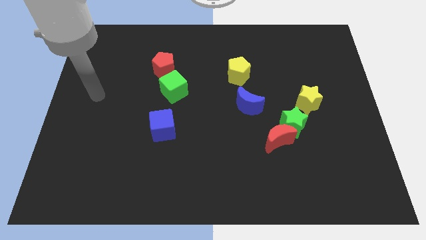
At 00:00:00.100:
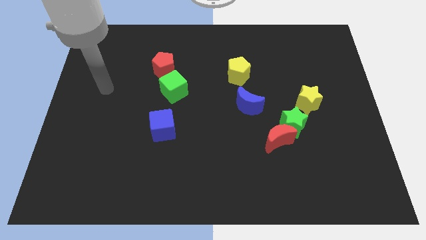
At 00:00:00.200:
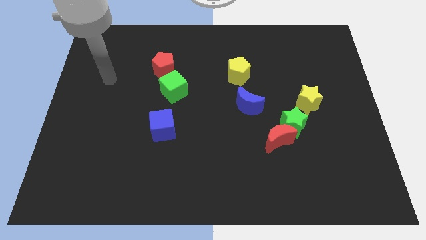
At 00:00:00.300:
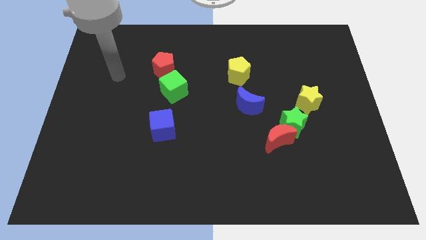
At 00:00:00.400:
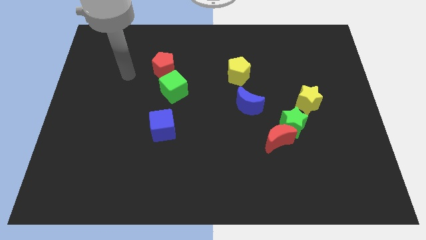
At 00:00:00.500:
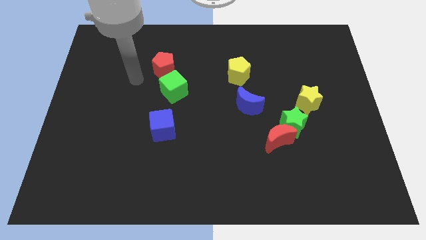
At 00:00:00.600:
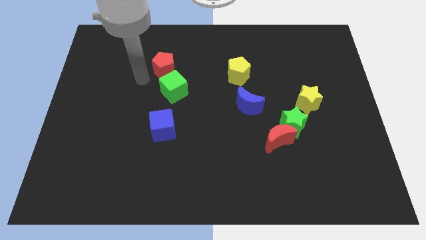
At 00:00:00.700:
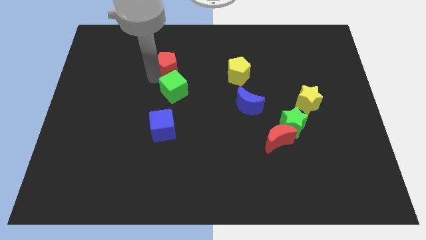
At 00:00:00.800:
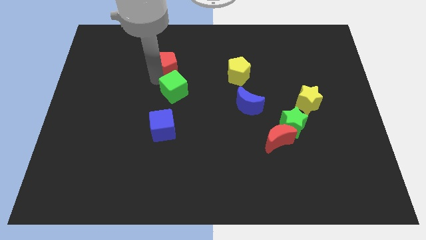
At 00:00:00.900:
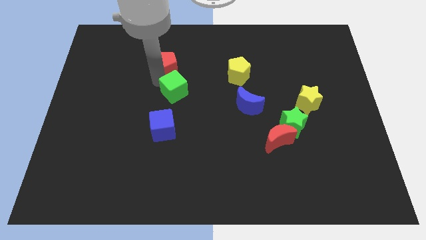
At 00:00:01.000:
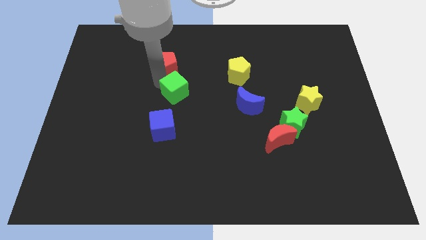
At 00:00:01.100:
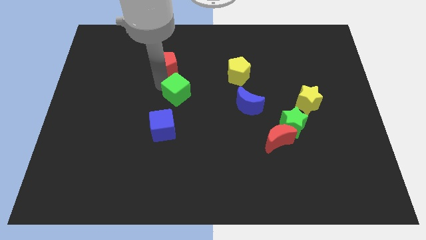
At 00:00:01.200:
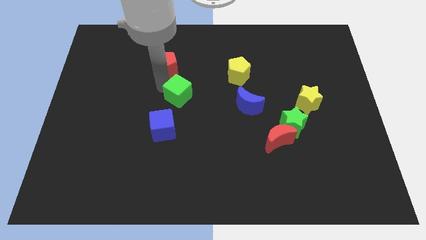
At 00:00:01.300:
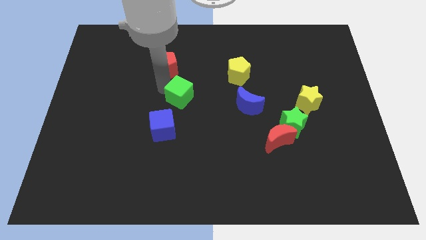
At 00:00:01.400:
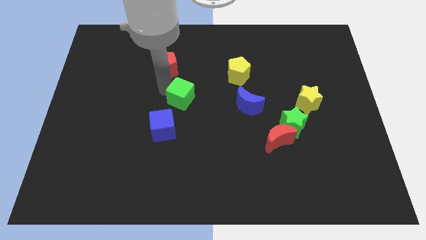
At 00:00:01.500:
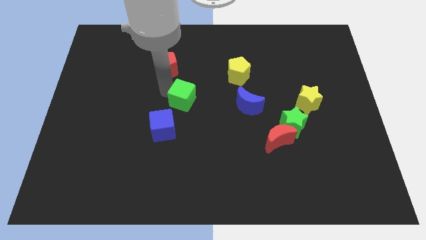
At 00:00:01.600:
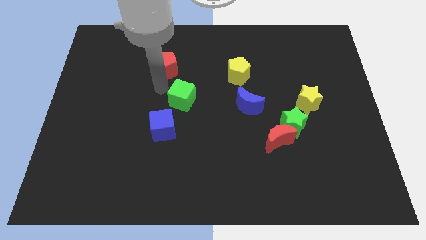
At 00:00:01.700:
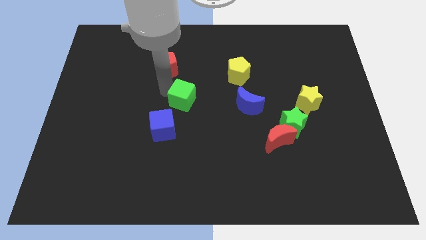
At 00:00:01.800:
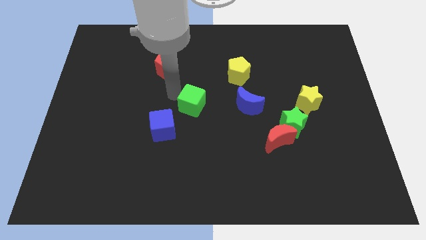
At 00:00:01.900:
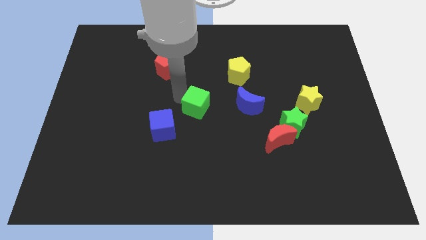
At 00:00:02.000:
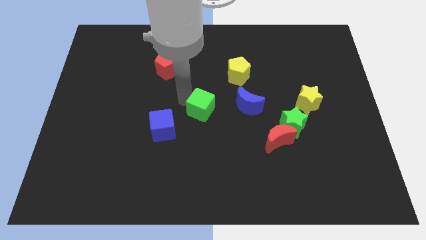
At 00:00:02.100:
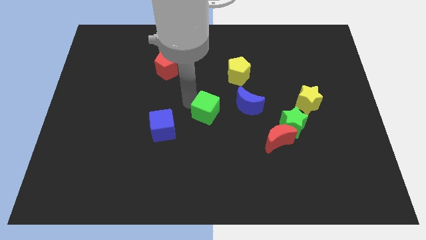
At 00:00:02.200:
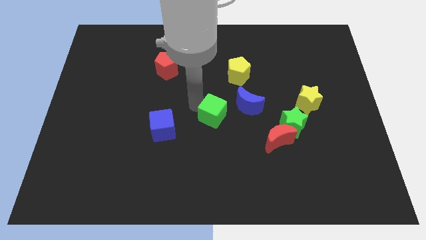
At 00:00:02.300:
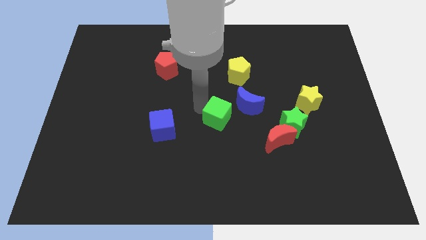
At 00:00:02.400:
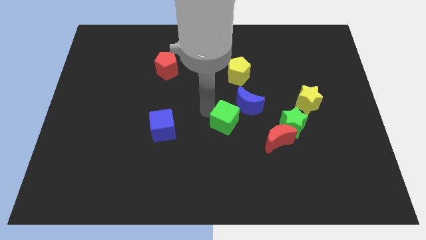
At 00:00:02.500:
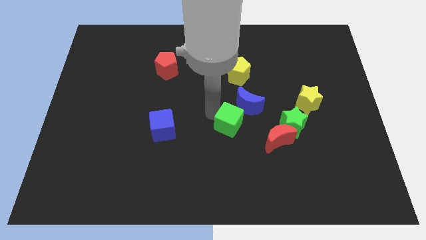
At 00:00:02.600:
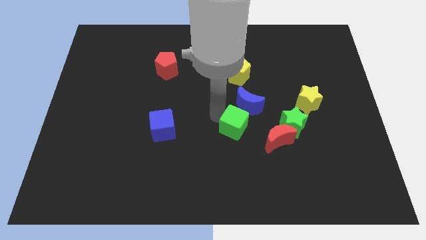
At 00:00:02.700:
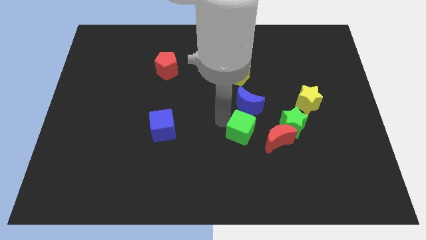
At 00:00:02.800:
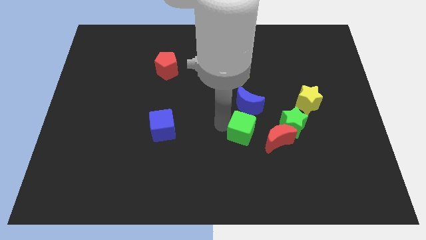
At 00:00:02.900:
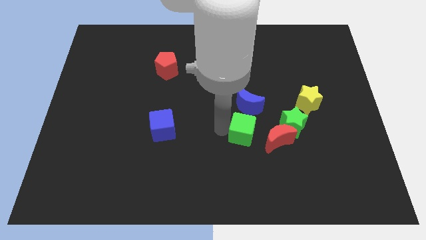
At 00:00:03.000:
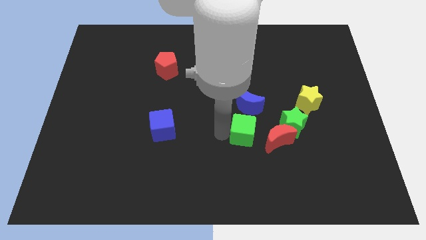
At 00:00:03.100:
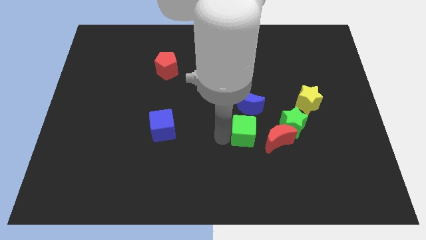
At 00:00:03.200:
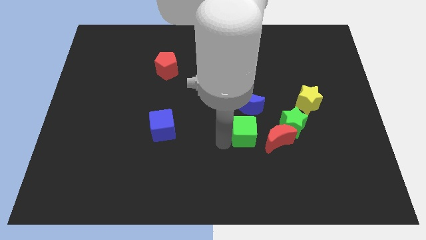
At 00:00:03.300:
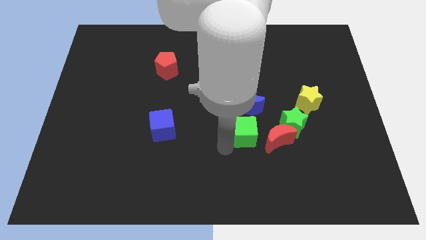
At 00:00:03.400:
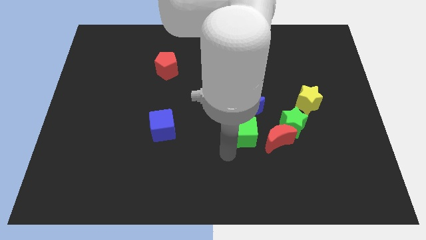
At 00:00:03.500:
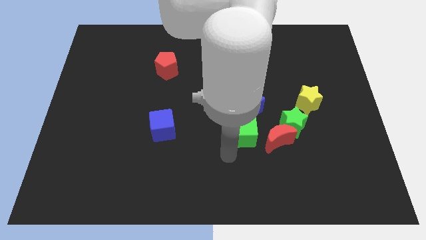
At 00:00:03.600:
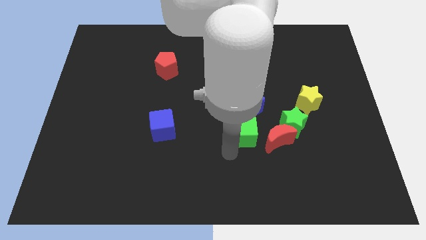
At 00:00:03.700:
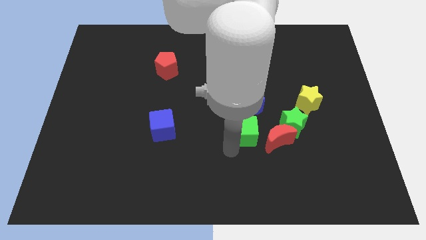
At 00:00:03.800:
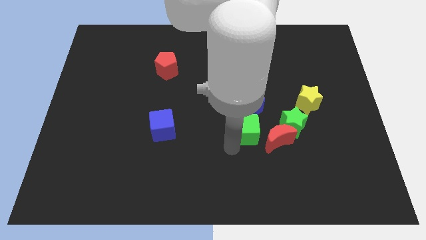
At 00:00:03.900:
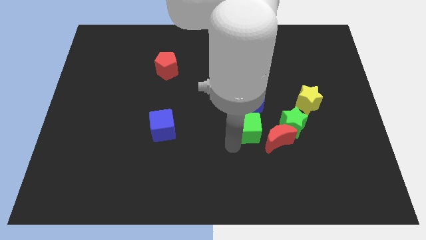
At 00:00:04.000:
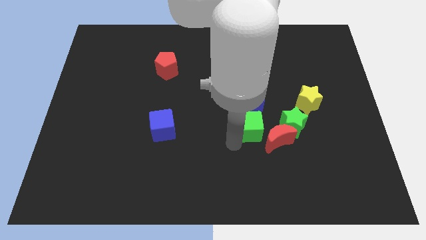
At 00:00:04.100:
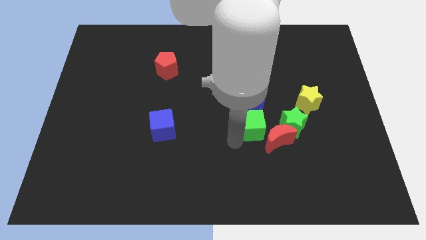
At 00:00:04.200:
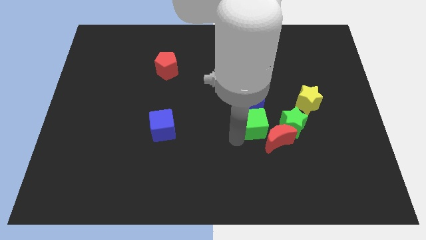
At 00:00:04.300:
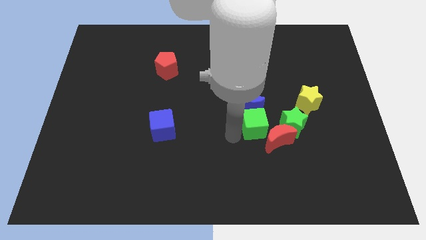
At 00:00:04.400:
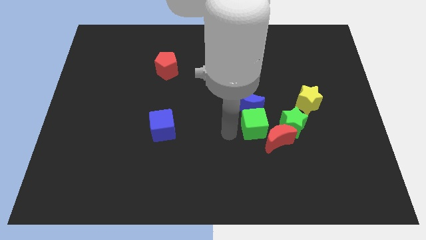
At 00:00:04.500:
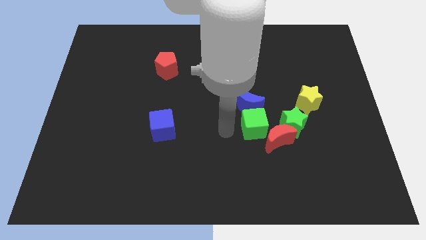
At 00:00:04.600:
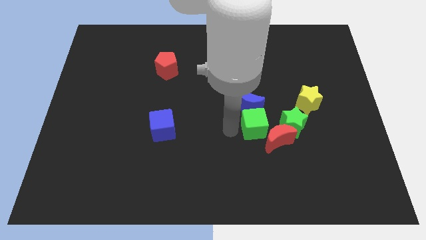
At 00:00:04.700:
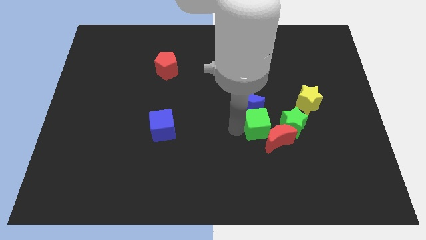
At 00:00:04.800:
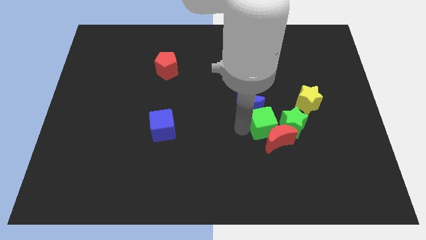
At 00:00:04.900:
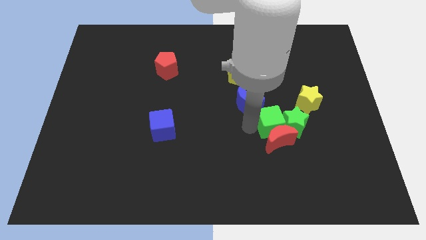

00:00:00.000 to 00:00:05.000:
push the green cube close to the green star

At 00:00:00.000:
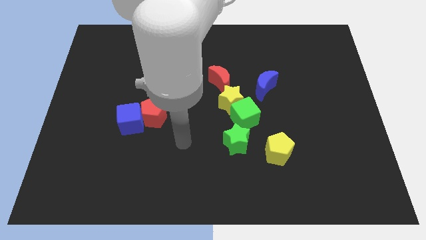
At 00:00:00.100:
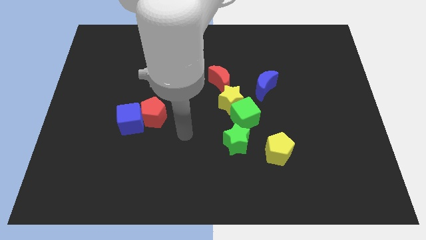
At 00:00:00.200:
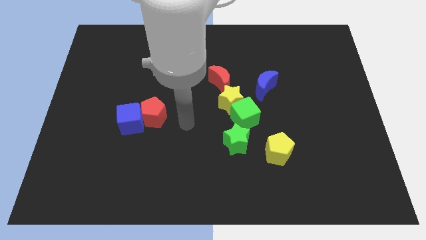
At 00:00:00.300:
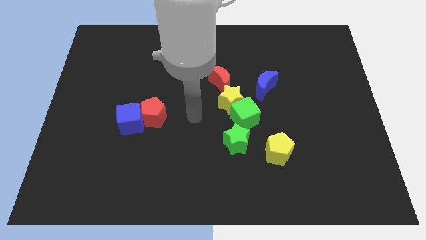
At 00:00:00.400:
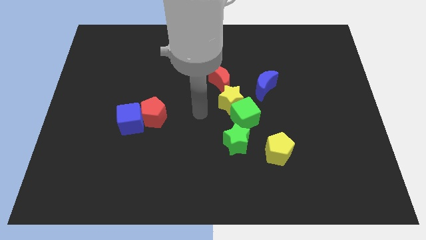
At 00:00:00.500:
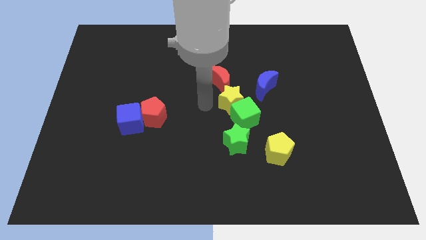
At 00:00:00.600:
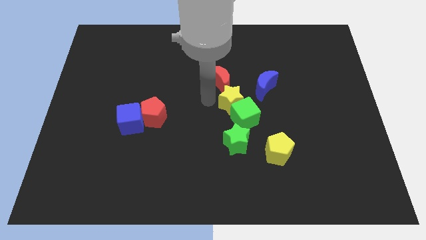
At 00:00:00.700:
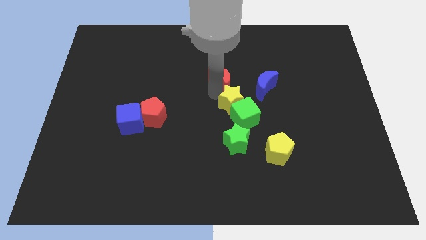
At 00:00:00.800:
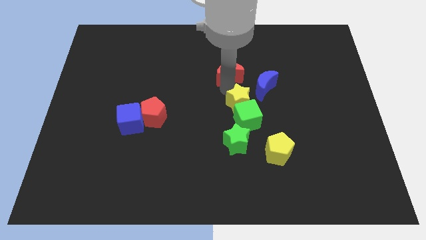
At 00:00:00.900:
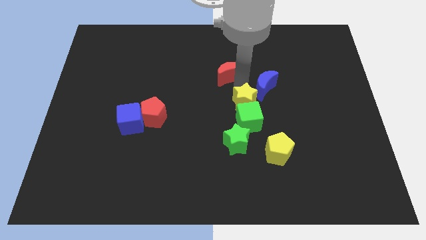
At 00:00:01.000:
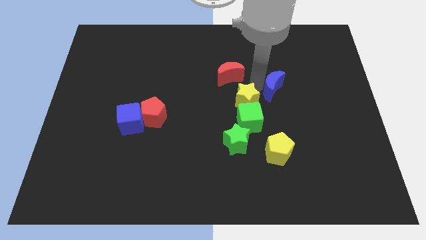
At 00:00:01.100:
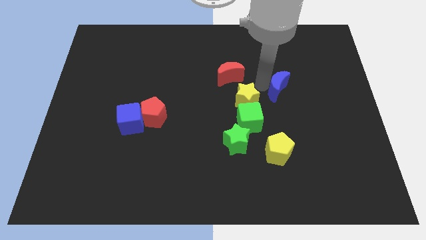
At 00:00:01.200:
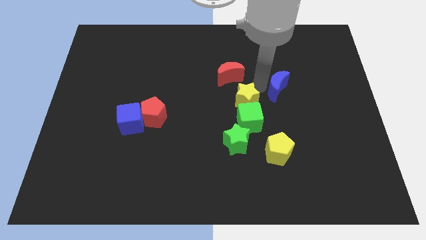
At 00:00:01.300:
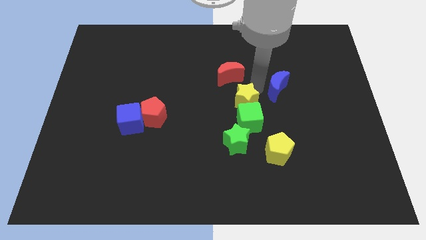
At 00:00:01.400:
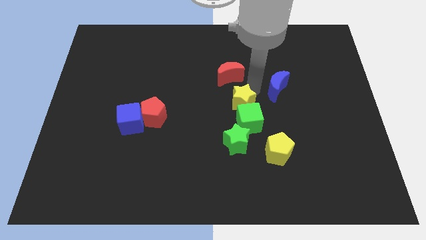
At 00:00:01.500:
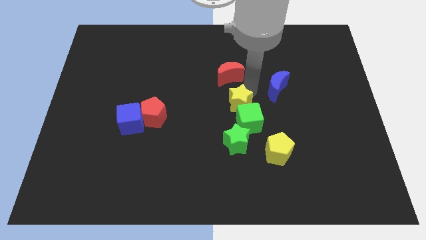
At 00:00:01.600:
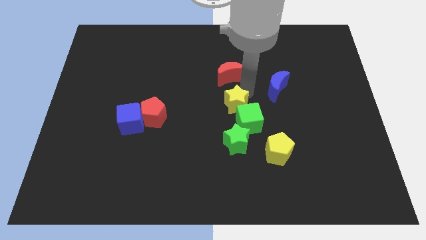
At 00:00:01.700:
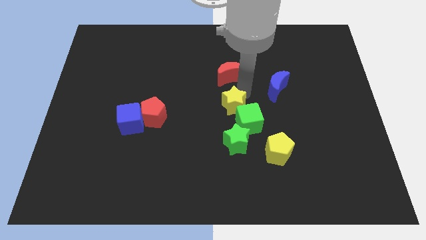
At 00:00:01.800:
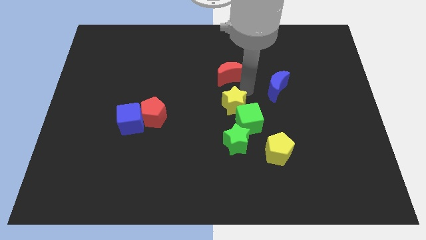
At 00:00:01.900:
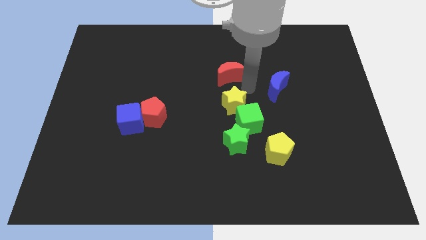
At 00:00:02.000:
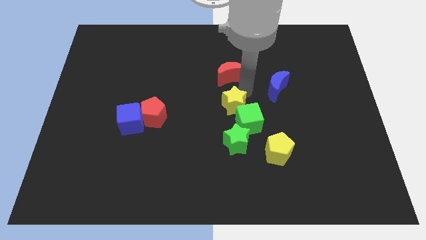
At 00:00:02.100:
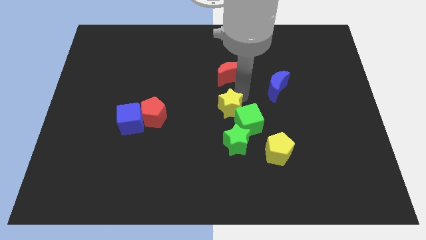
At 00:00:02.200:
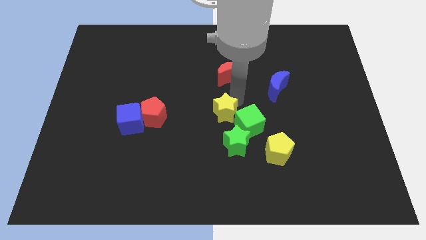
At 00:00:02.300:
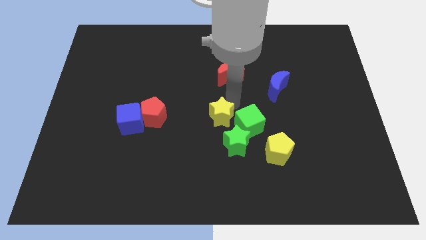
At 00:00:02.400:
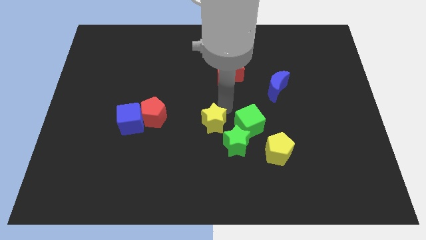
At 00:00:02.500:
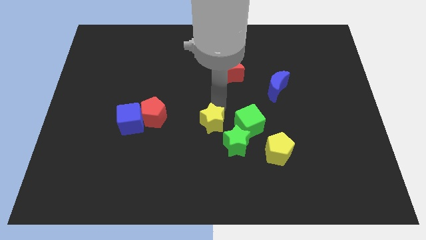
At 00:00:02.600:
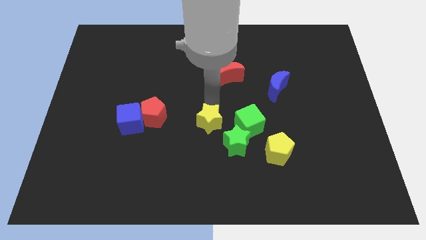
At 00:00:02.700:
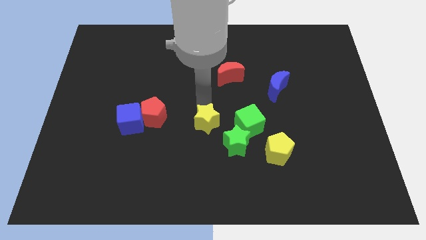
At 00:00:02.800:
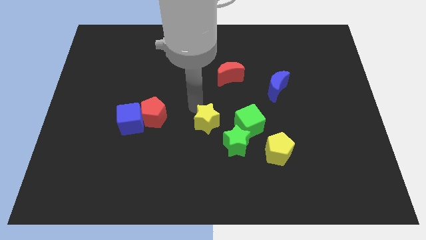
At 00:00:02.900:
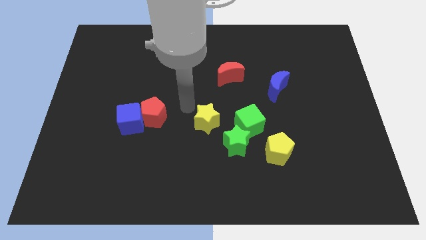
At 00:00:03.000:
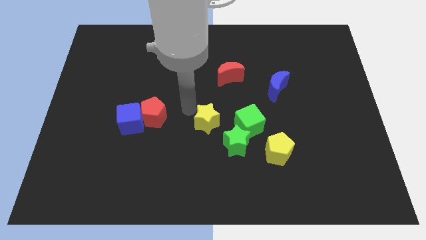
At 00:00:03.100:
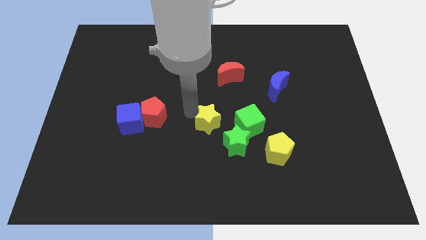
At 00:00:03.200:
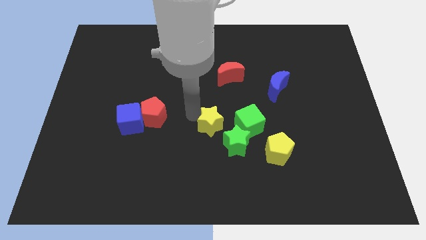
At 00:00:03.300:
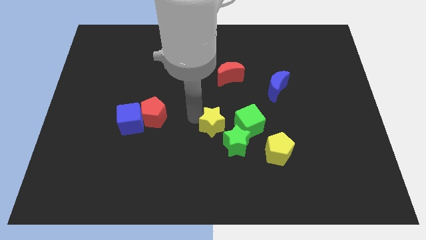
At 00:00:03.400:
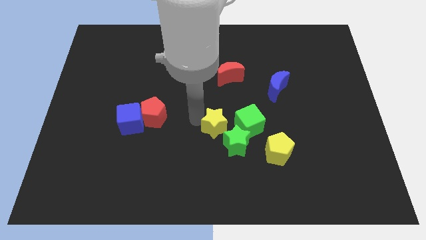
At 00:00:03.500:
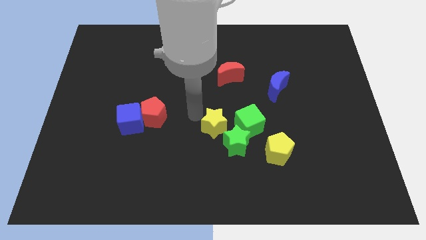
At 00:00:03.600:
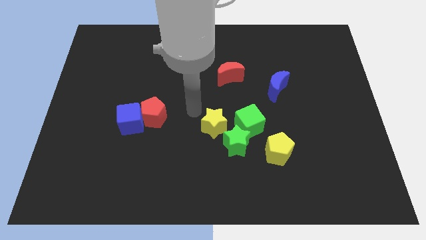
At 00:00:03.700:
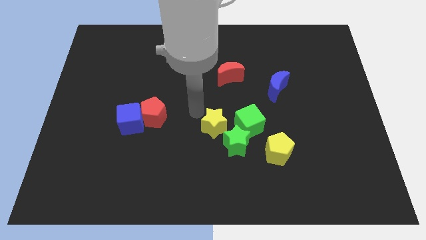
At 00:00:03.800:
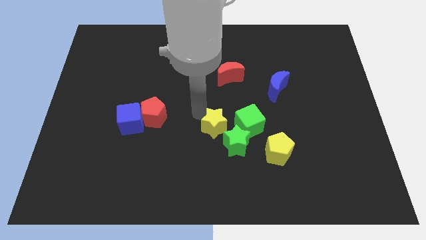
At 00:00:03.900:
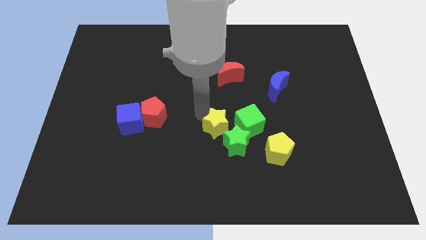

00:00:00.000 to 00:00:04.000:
put the yellow star next to the green star
